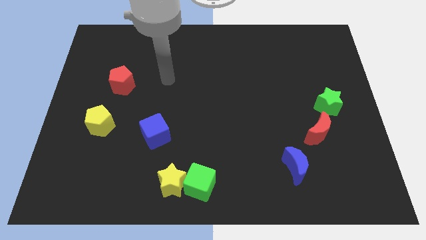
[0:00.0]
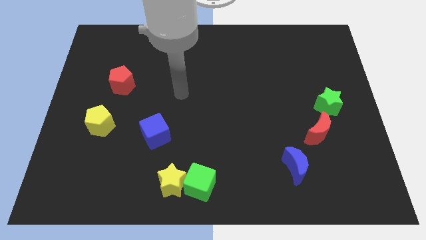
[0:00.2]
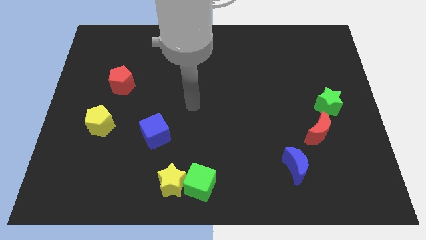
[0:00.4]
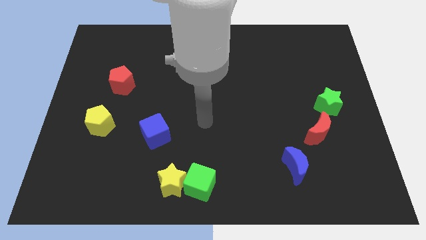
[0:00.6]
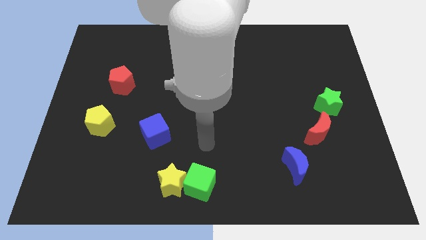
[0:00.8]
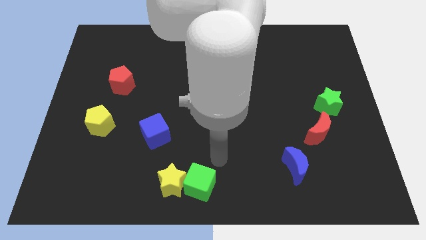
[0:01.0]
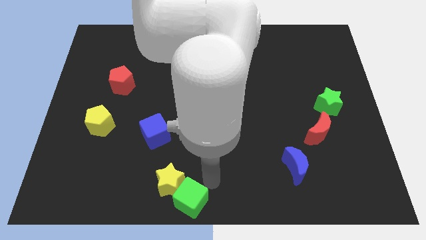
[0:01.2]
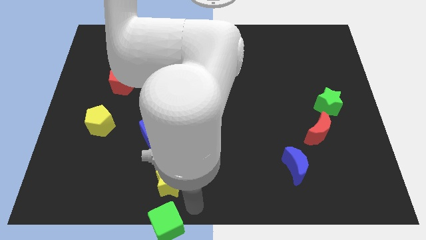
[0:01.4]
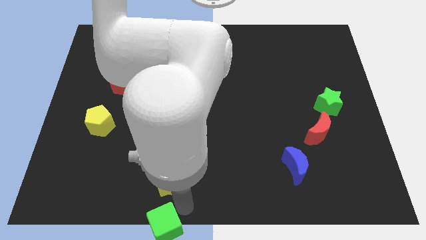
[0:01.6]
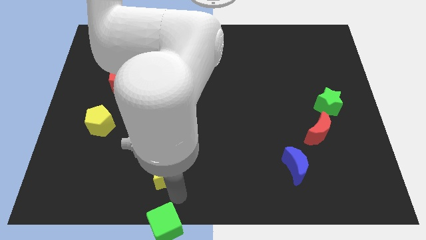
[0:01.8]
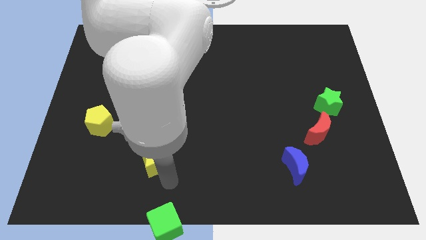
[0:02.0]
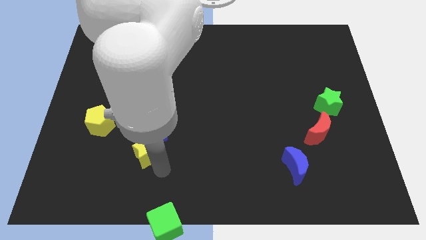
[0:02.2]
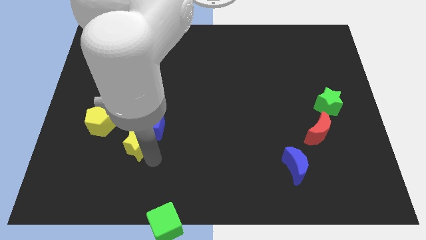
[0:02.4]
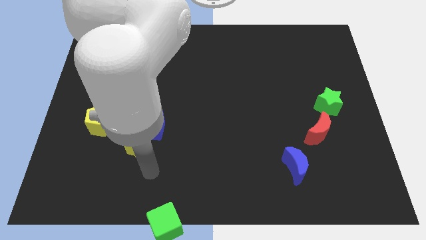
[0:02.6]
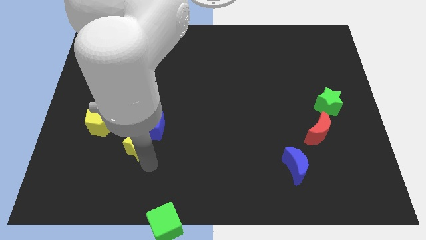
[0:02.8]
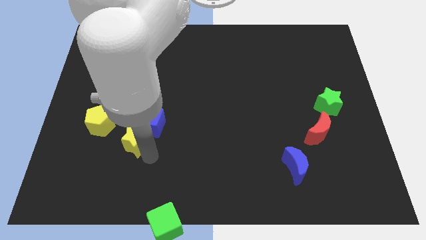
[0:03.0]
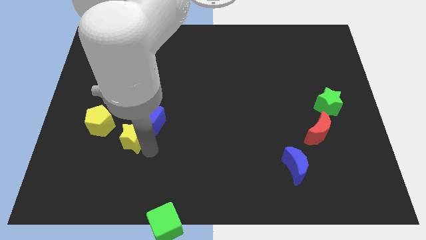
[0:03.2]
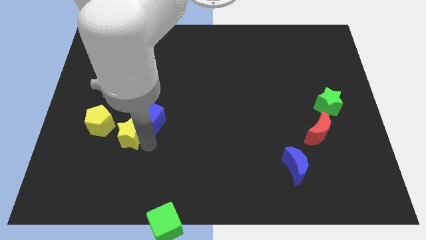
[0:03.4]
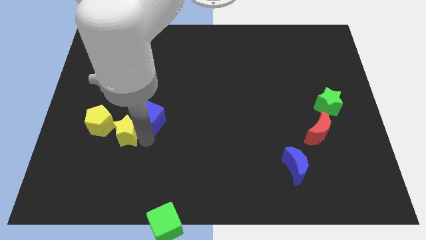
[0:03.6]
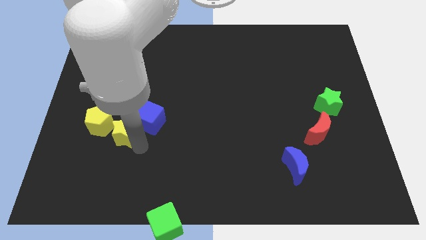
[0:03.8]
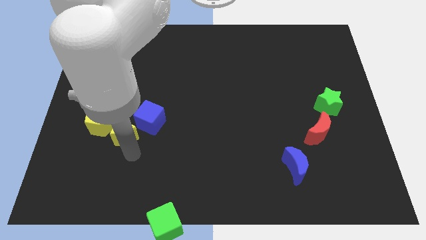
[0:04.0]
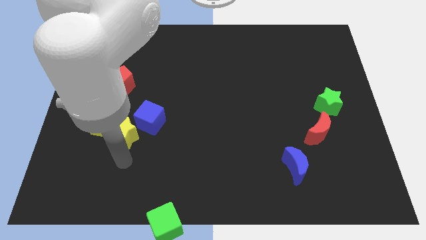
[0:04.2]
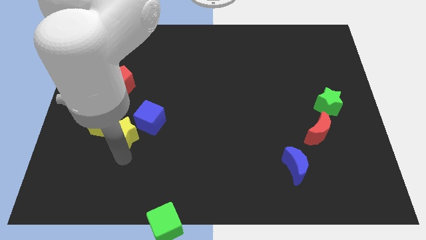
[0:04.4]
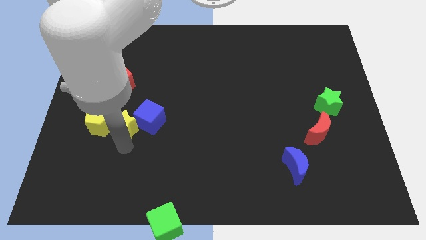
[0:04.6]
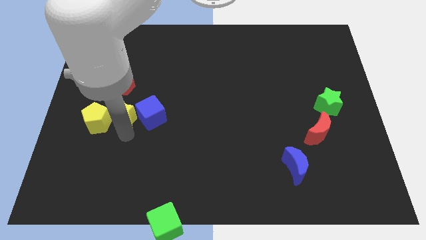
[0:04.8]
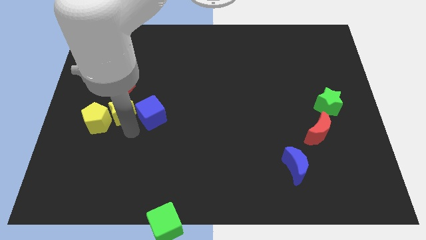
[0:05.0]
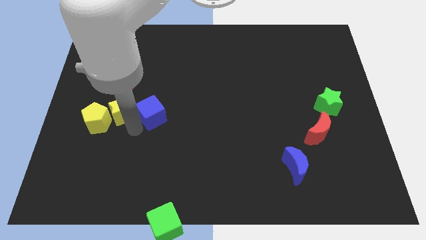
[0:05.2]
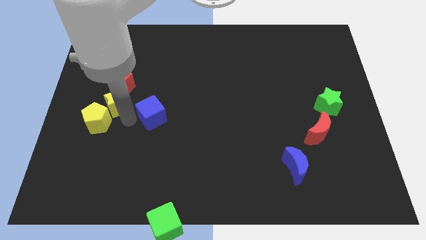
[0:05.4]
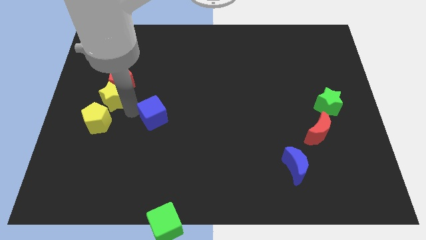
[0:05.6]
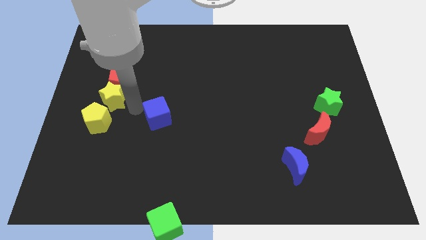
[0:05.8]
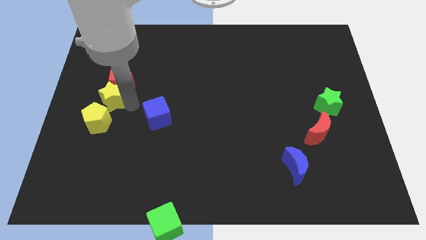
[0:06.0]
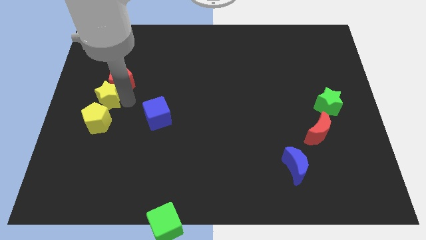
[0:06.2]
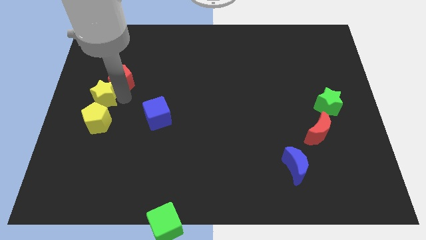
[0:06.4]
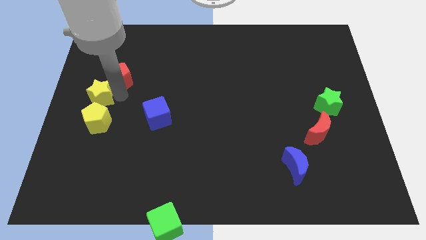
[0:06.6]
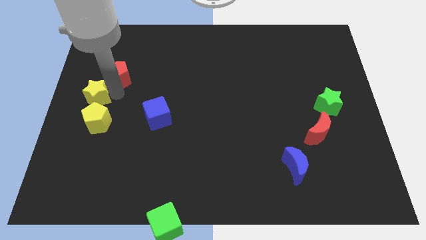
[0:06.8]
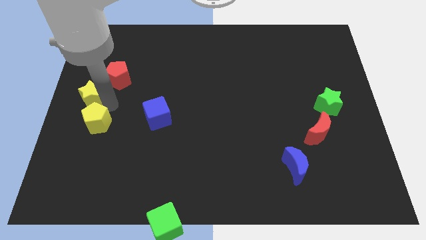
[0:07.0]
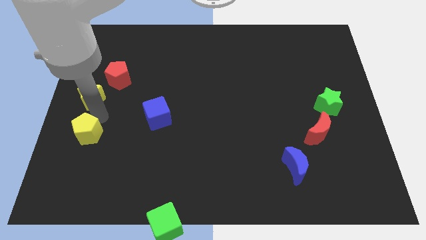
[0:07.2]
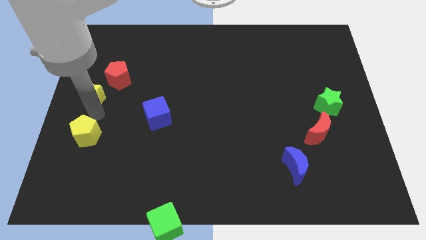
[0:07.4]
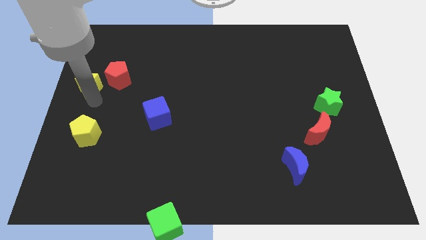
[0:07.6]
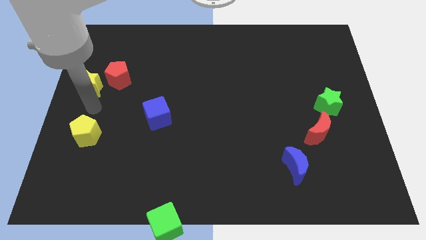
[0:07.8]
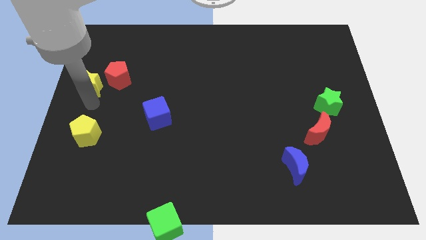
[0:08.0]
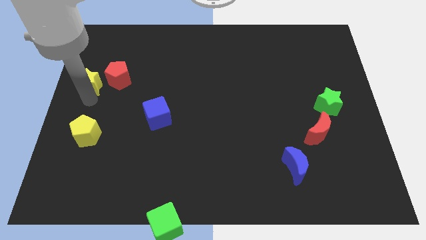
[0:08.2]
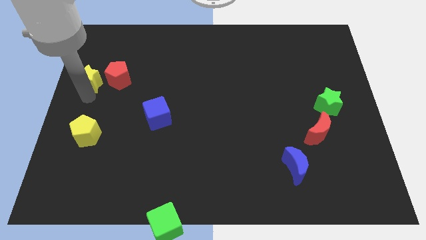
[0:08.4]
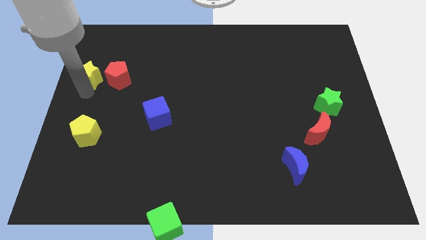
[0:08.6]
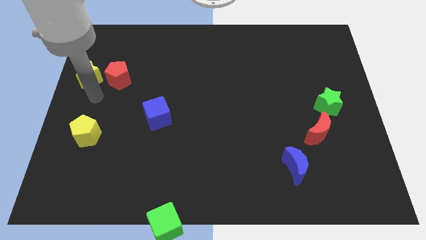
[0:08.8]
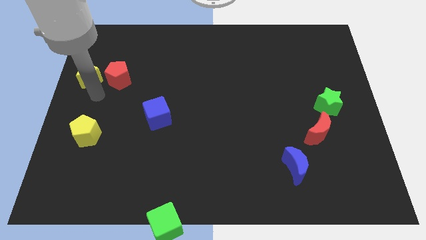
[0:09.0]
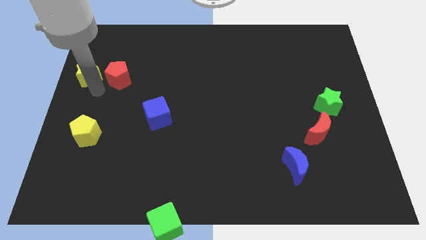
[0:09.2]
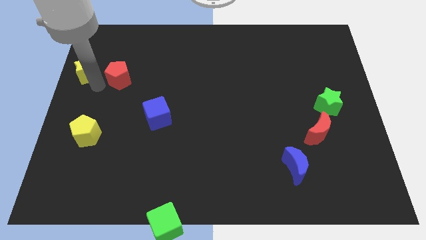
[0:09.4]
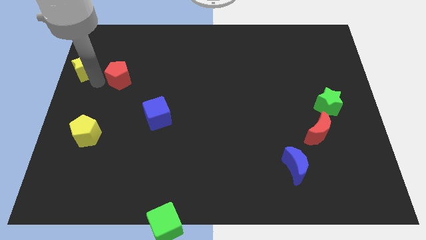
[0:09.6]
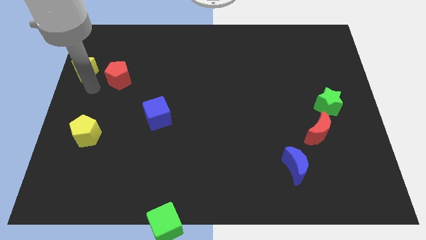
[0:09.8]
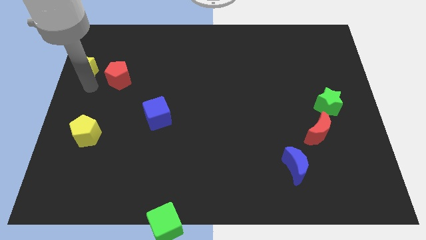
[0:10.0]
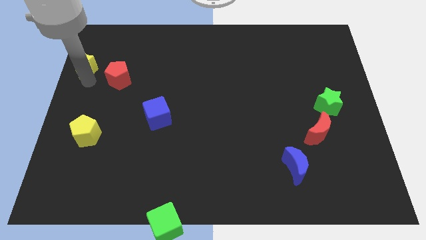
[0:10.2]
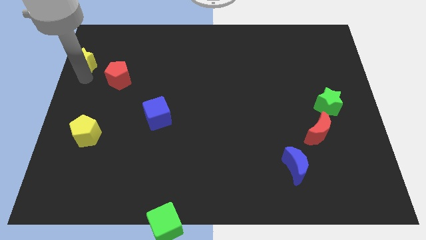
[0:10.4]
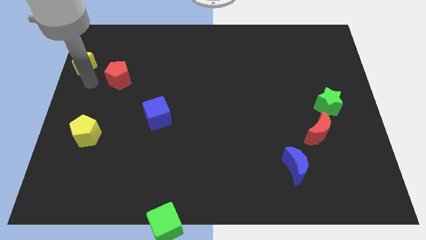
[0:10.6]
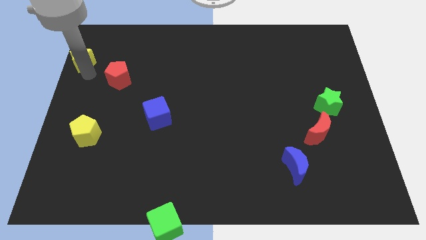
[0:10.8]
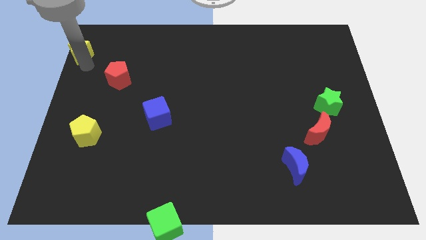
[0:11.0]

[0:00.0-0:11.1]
slide the yellow star to the upper left corner

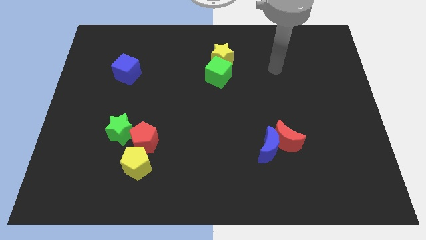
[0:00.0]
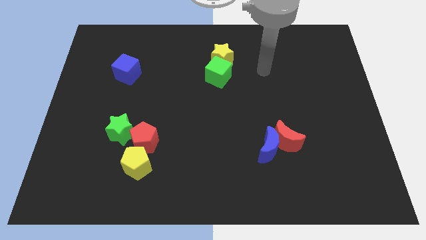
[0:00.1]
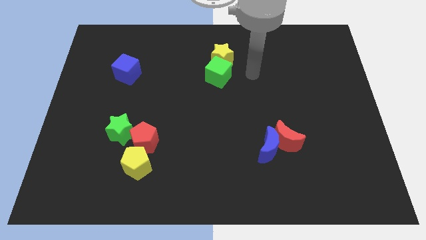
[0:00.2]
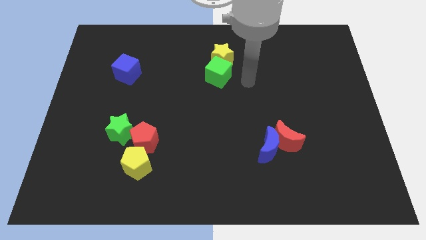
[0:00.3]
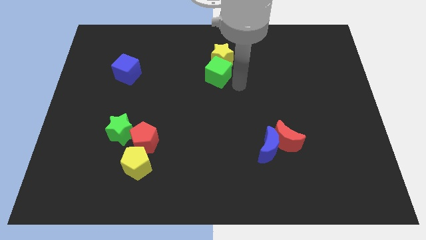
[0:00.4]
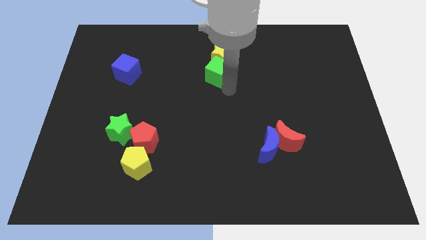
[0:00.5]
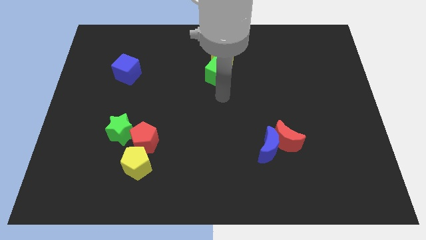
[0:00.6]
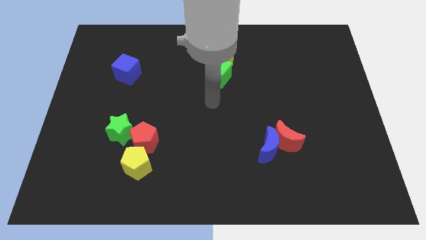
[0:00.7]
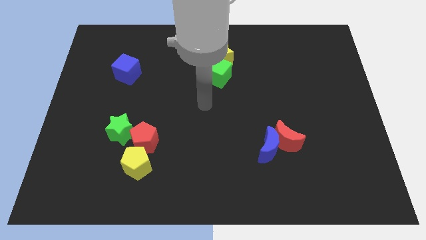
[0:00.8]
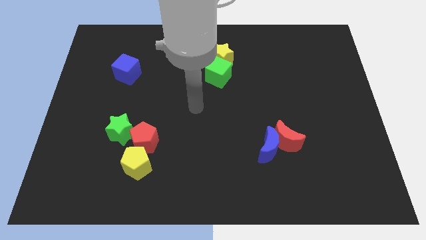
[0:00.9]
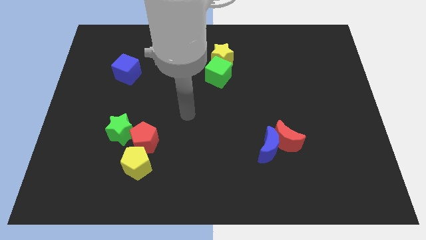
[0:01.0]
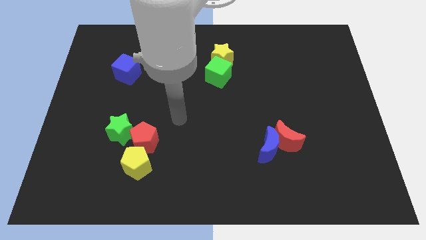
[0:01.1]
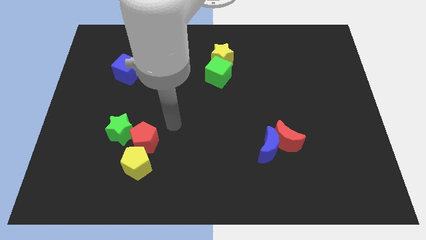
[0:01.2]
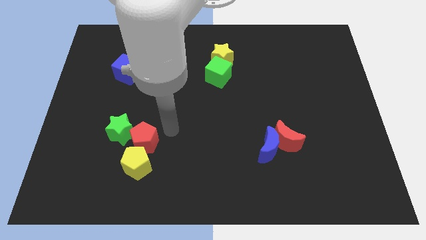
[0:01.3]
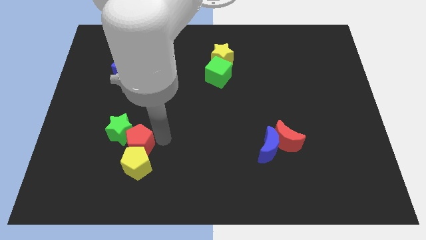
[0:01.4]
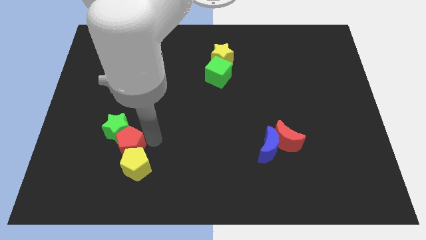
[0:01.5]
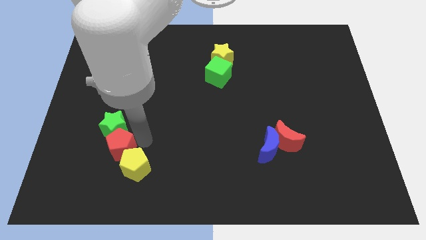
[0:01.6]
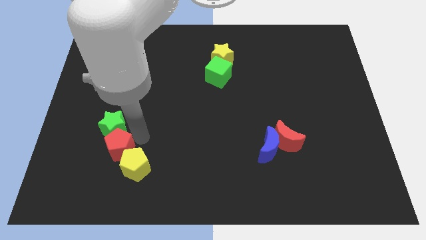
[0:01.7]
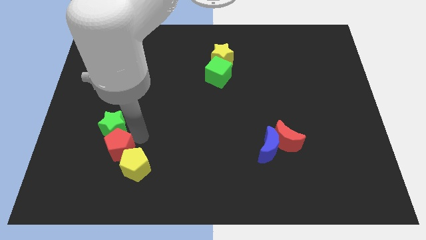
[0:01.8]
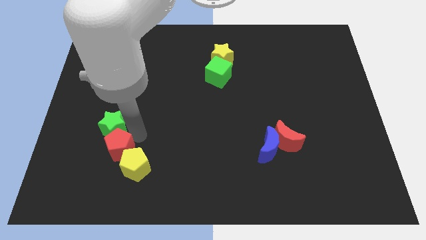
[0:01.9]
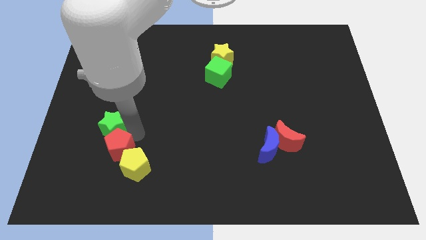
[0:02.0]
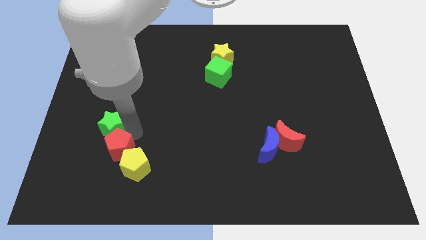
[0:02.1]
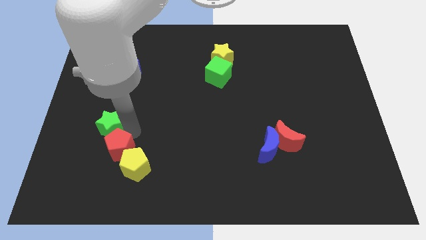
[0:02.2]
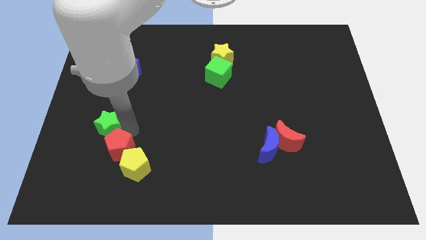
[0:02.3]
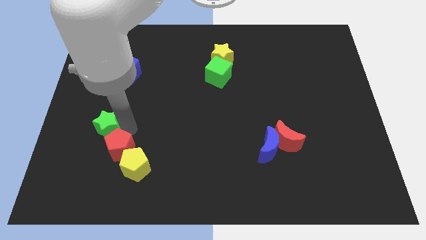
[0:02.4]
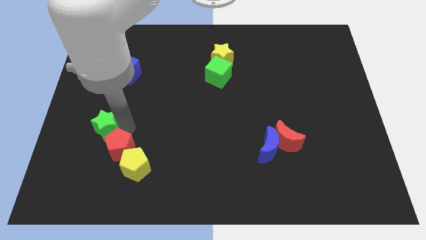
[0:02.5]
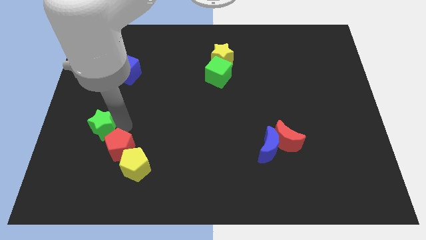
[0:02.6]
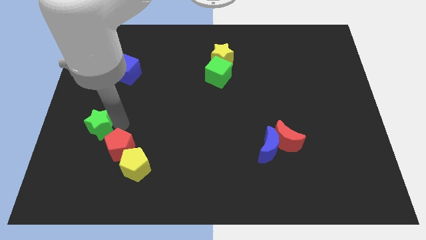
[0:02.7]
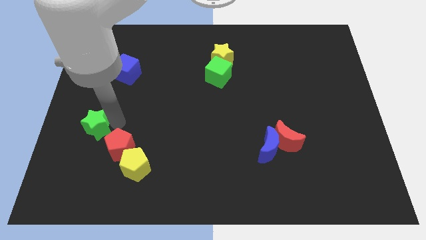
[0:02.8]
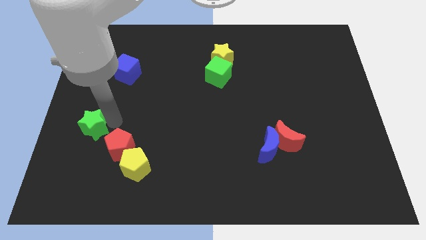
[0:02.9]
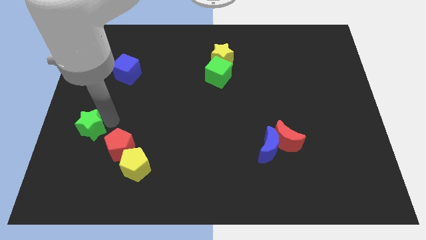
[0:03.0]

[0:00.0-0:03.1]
move the green star to the left side
